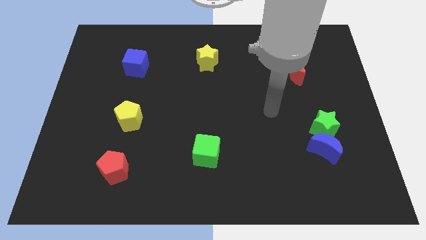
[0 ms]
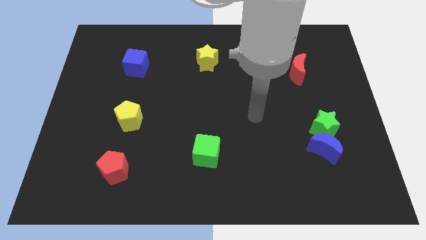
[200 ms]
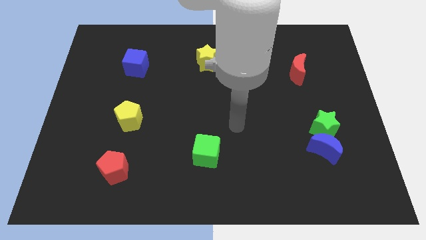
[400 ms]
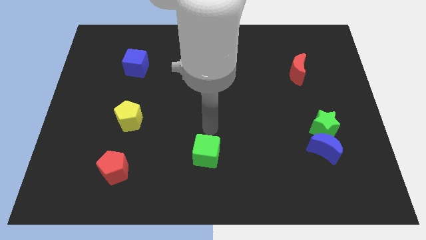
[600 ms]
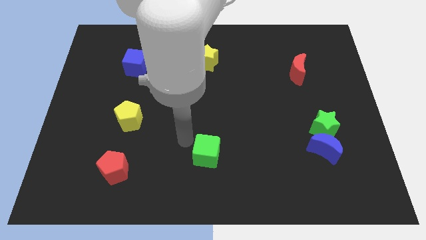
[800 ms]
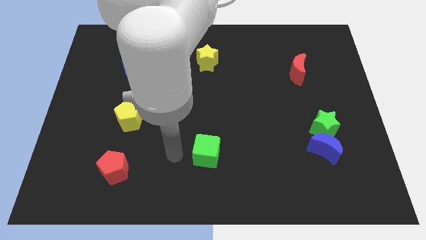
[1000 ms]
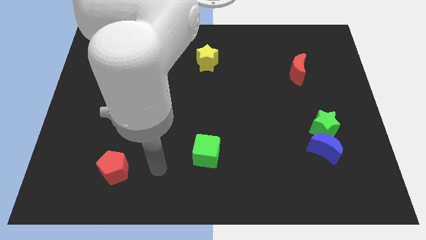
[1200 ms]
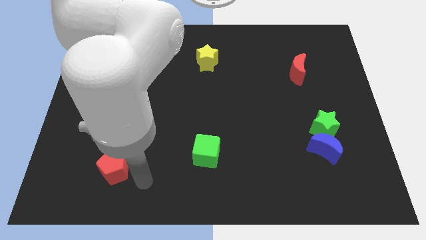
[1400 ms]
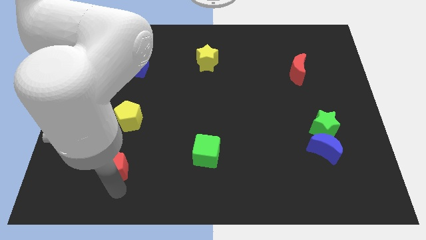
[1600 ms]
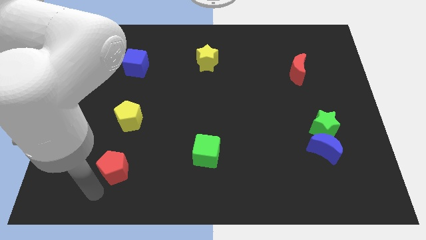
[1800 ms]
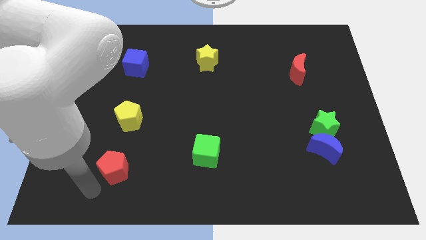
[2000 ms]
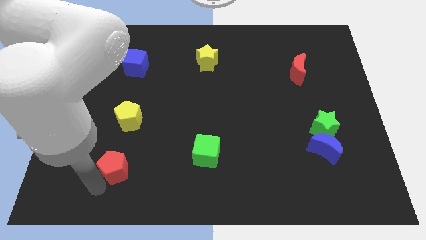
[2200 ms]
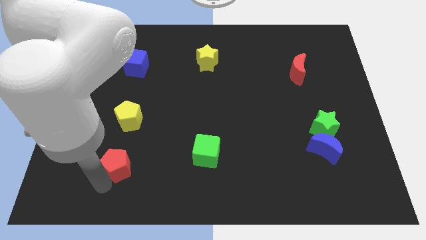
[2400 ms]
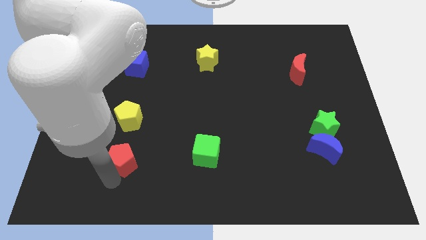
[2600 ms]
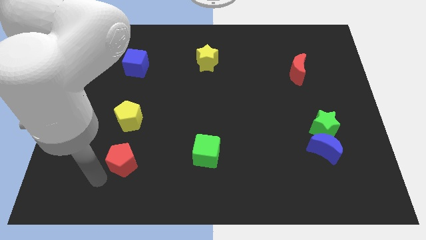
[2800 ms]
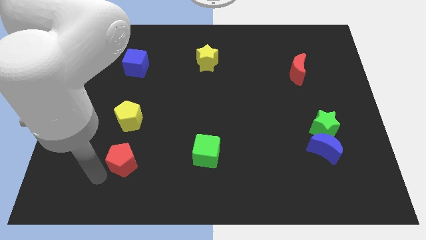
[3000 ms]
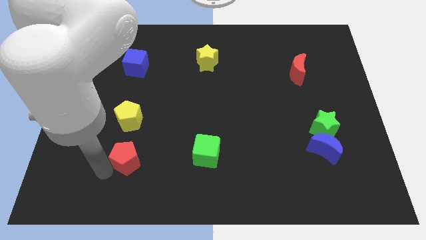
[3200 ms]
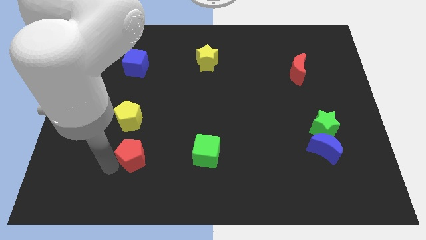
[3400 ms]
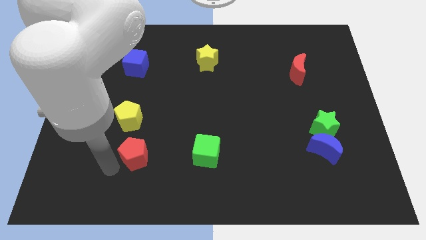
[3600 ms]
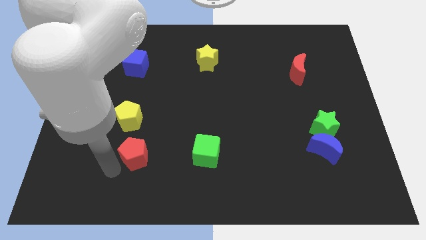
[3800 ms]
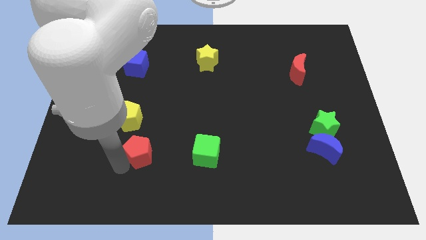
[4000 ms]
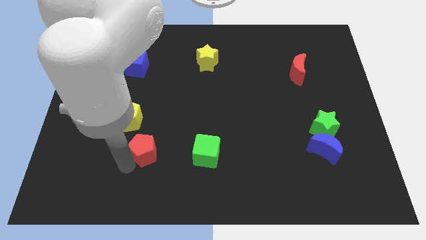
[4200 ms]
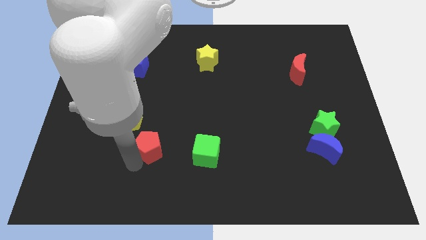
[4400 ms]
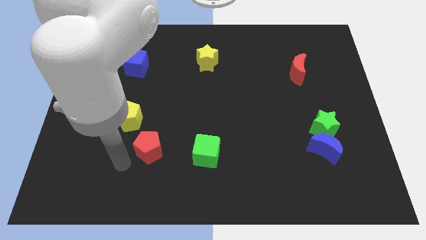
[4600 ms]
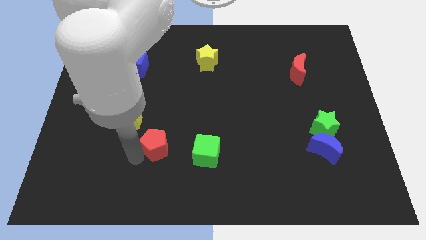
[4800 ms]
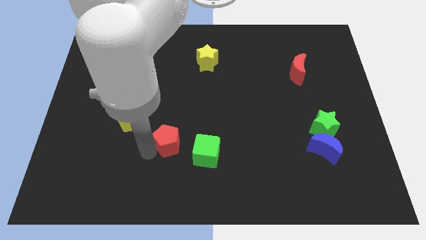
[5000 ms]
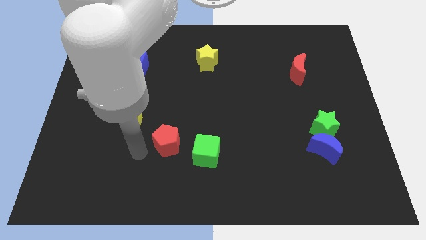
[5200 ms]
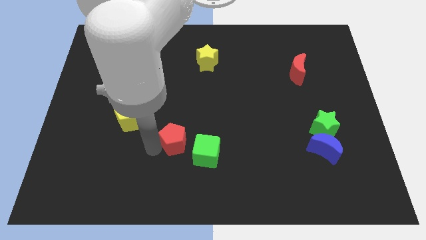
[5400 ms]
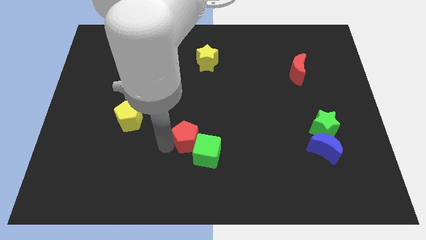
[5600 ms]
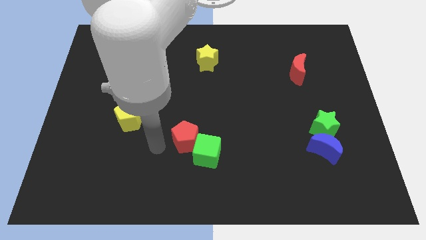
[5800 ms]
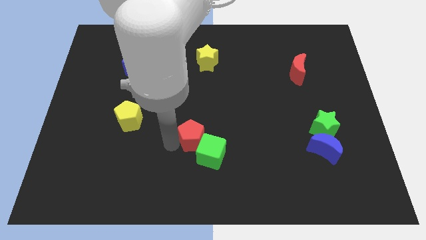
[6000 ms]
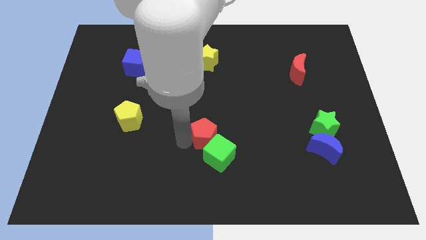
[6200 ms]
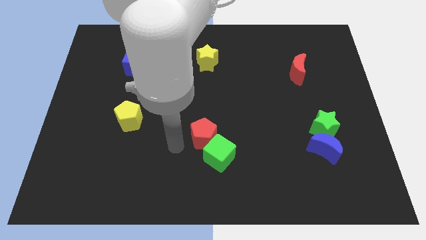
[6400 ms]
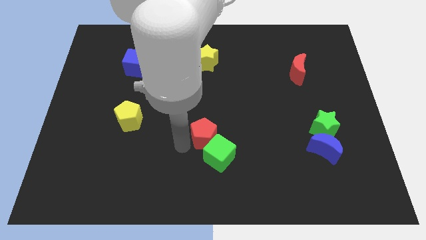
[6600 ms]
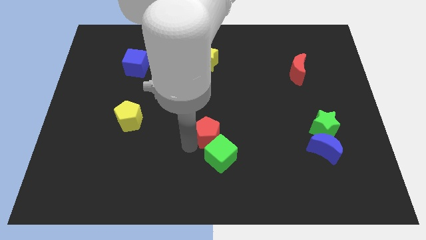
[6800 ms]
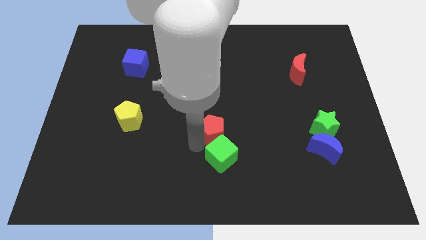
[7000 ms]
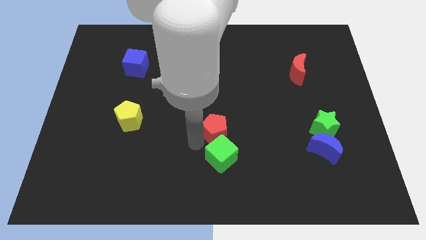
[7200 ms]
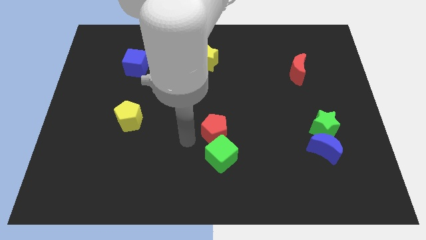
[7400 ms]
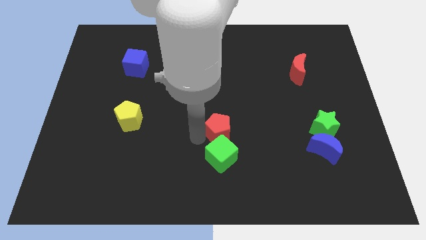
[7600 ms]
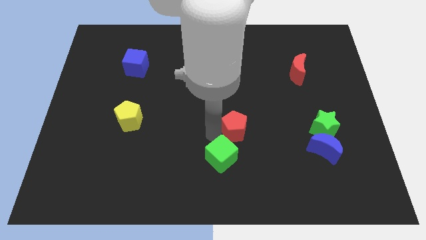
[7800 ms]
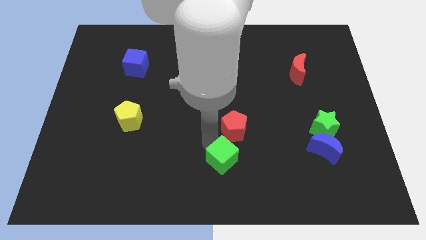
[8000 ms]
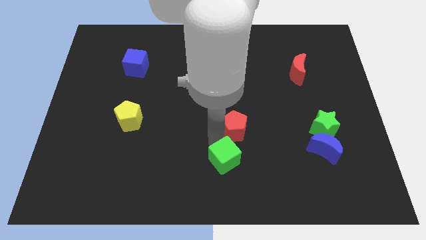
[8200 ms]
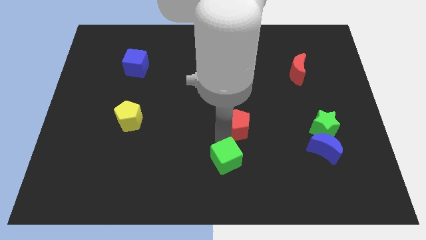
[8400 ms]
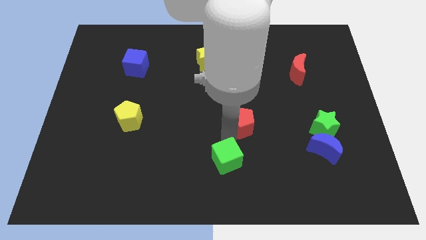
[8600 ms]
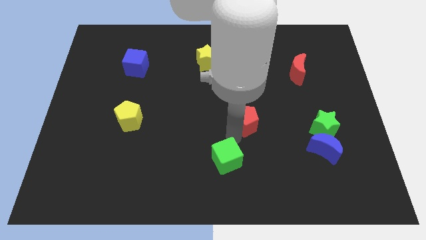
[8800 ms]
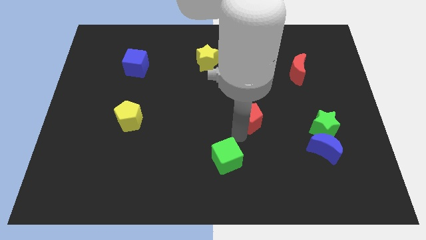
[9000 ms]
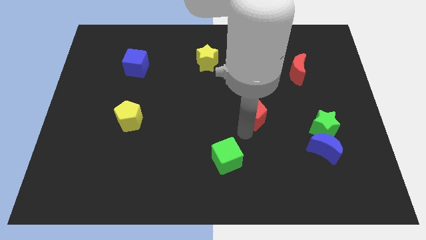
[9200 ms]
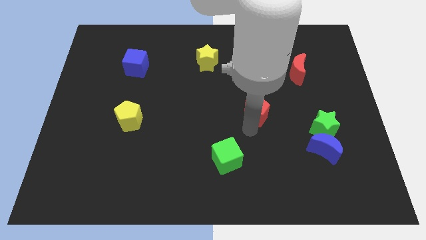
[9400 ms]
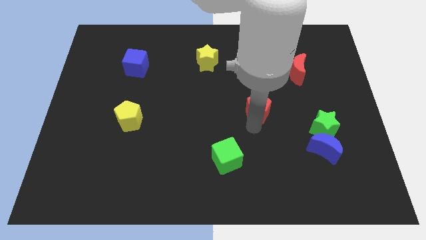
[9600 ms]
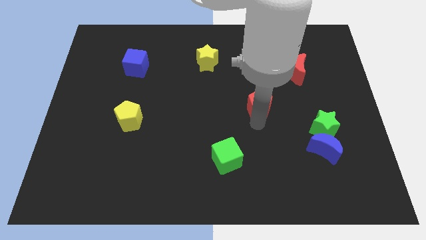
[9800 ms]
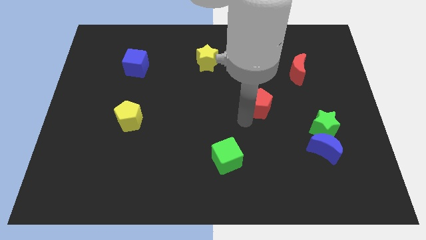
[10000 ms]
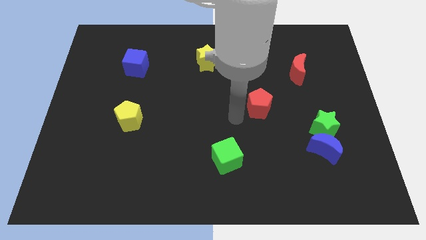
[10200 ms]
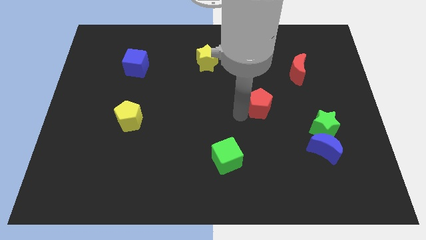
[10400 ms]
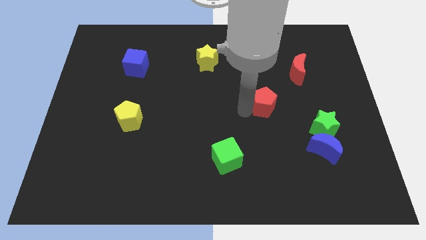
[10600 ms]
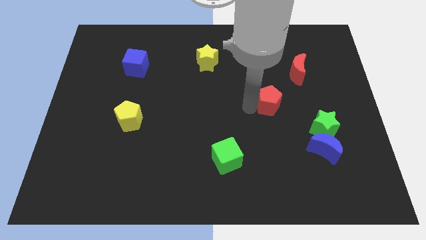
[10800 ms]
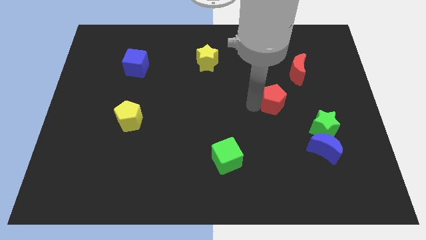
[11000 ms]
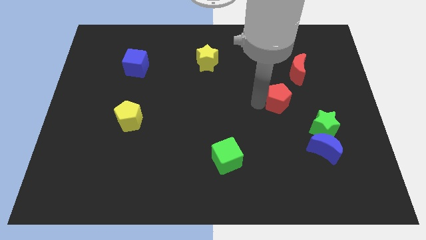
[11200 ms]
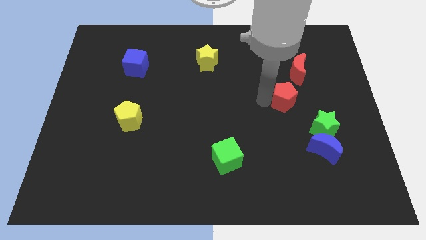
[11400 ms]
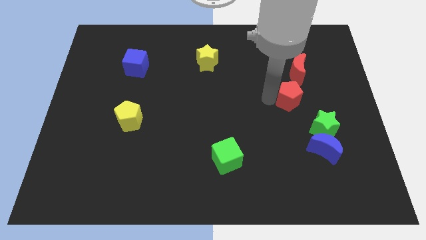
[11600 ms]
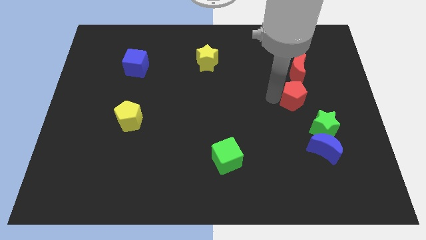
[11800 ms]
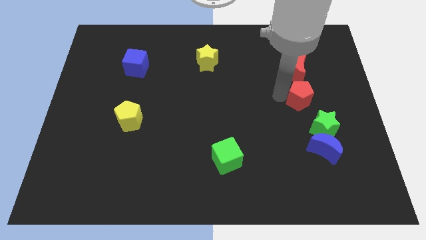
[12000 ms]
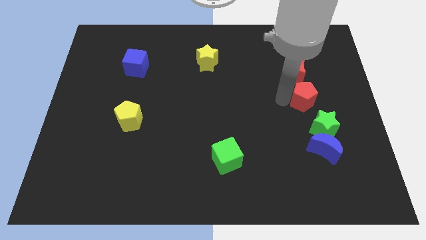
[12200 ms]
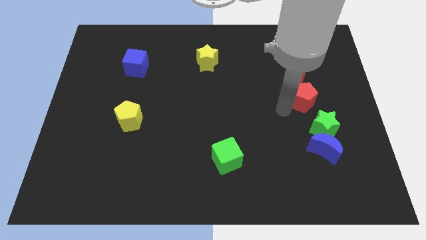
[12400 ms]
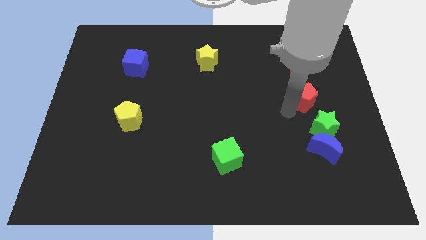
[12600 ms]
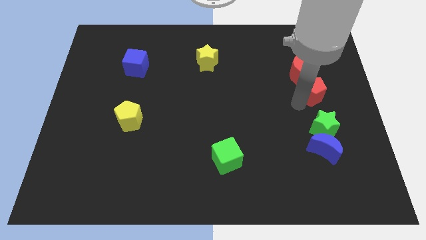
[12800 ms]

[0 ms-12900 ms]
put the red pentagon to the bottom right of the red moon
